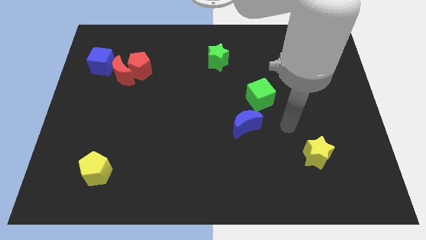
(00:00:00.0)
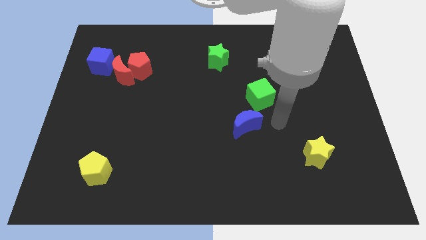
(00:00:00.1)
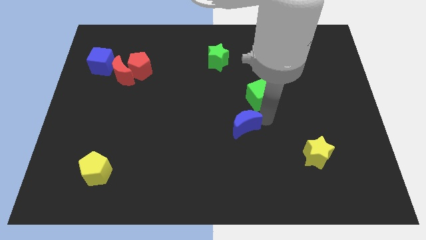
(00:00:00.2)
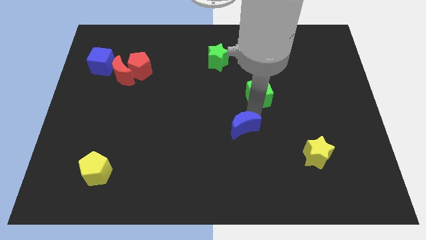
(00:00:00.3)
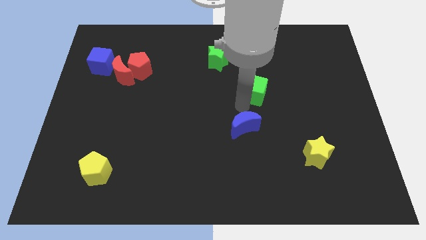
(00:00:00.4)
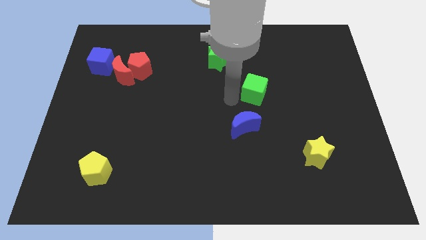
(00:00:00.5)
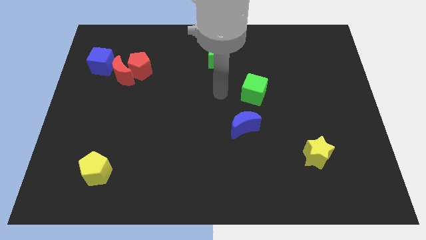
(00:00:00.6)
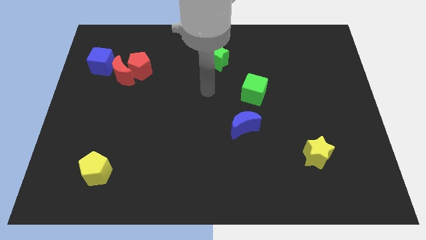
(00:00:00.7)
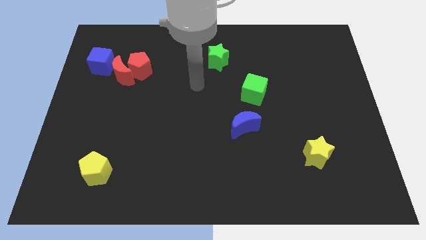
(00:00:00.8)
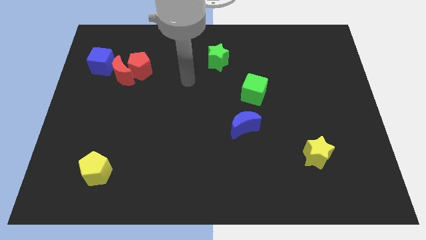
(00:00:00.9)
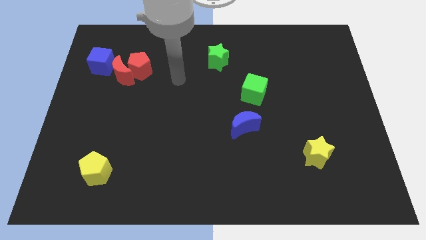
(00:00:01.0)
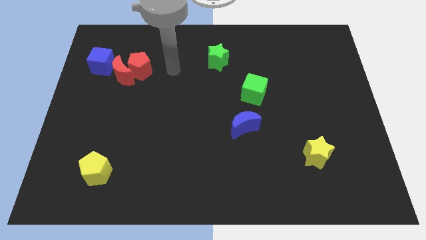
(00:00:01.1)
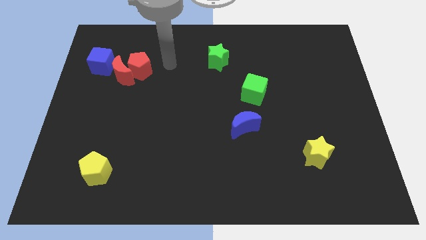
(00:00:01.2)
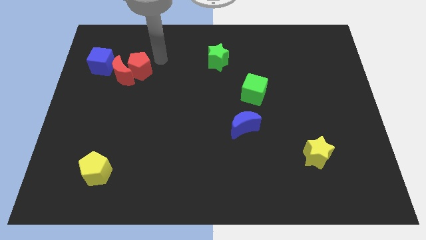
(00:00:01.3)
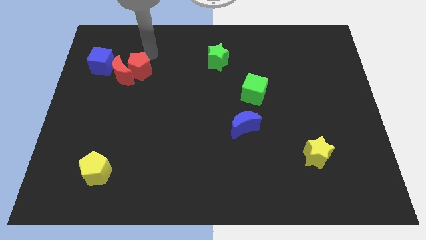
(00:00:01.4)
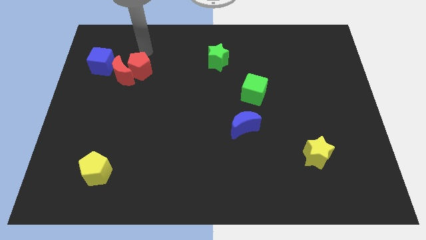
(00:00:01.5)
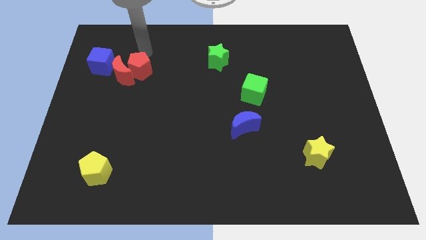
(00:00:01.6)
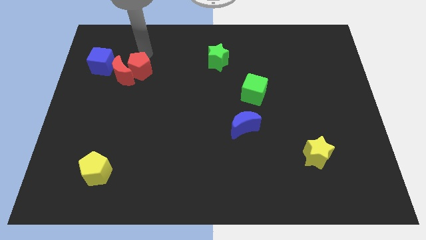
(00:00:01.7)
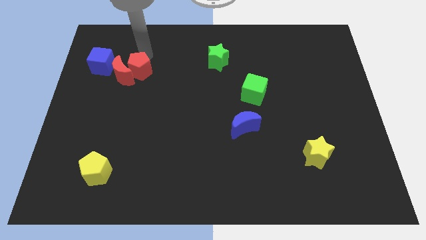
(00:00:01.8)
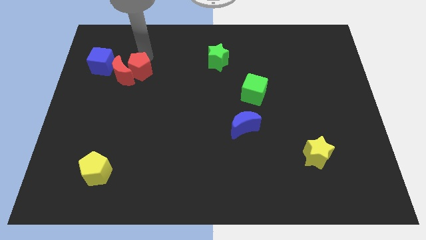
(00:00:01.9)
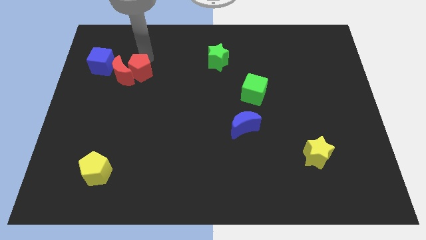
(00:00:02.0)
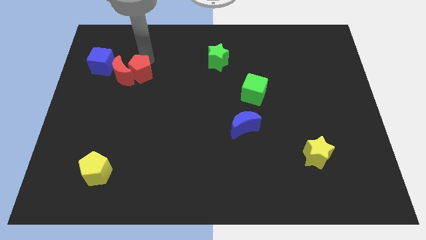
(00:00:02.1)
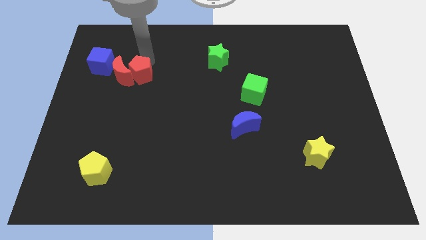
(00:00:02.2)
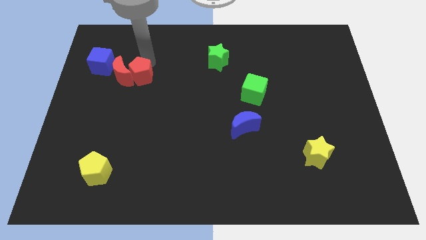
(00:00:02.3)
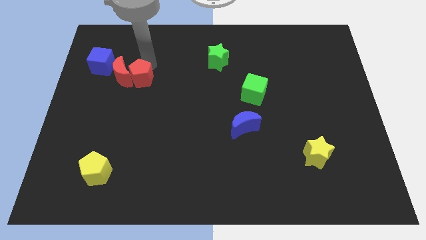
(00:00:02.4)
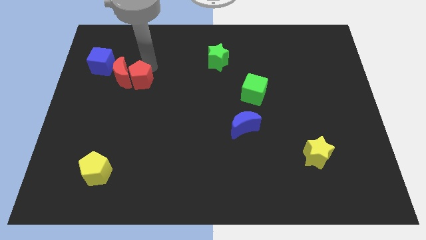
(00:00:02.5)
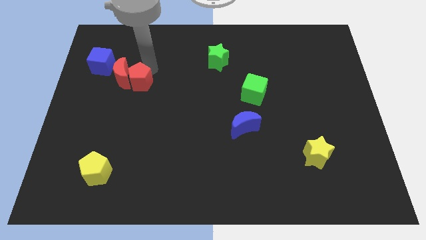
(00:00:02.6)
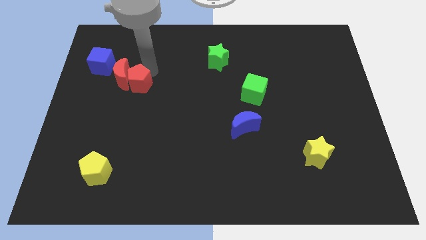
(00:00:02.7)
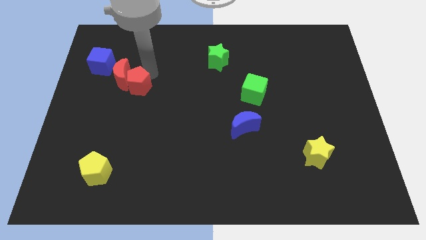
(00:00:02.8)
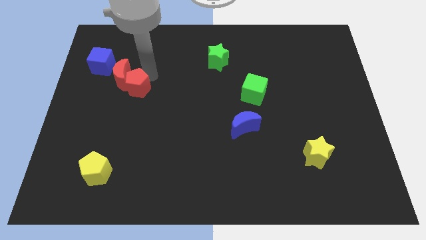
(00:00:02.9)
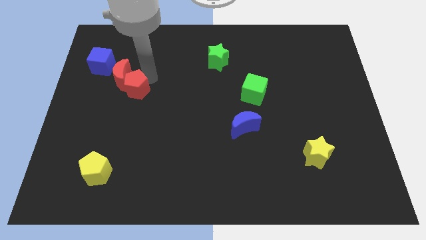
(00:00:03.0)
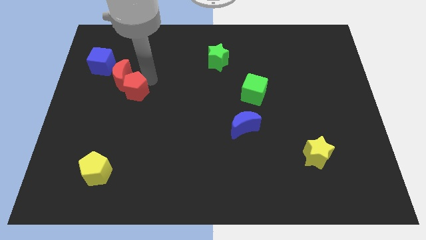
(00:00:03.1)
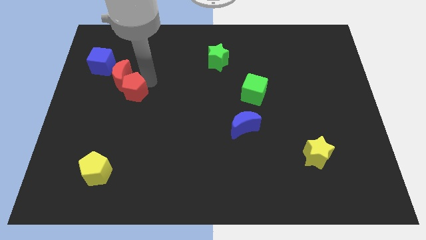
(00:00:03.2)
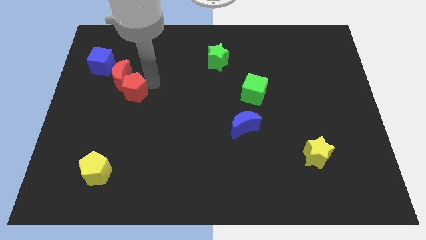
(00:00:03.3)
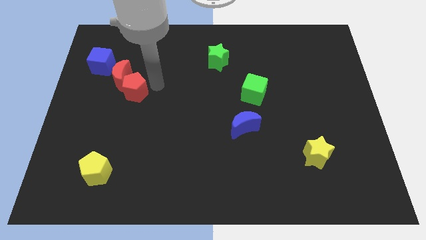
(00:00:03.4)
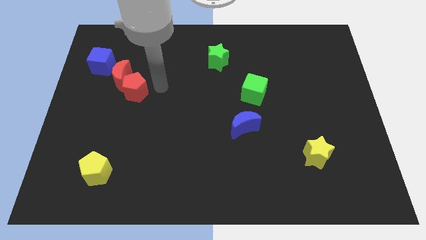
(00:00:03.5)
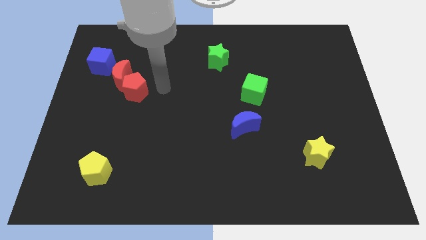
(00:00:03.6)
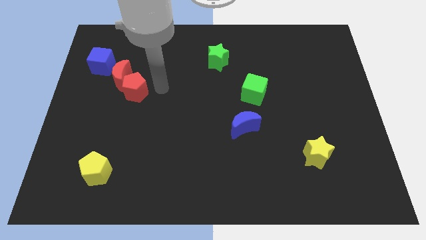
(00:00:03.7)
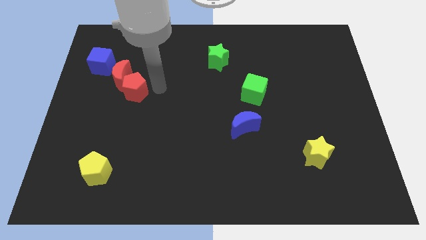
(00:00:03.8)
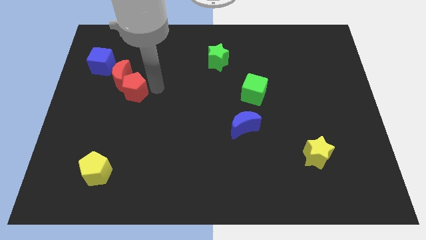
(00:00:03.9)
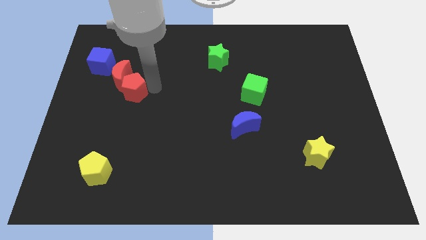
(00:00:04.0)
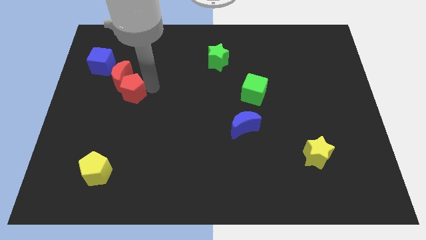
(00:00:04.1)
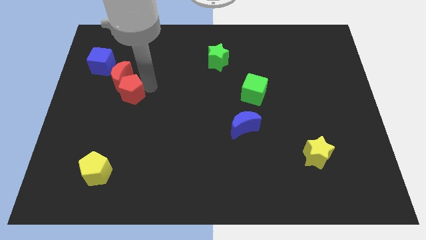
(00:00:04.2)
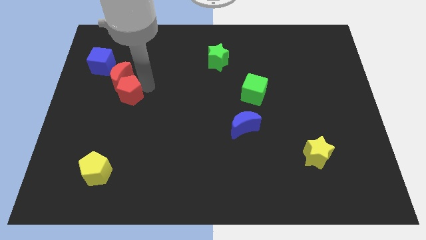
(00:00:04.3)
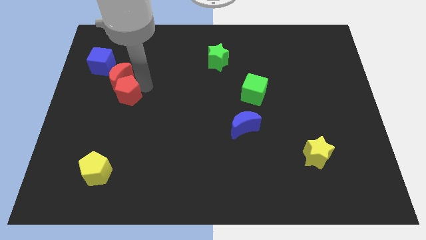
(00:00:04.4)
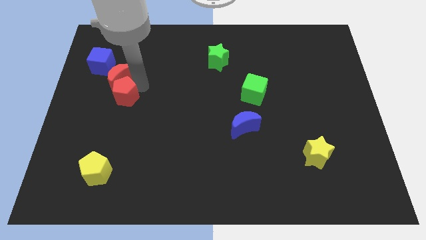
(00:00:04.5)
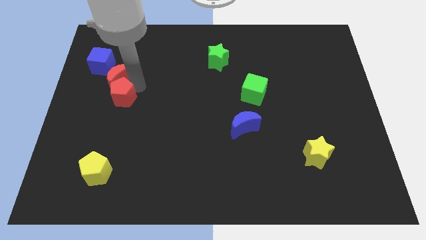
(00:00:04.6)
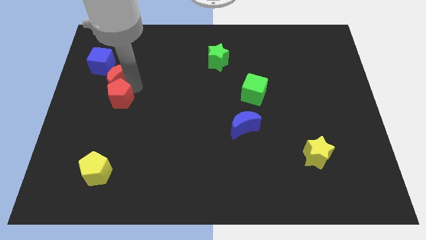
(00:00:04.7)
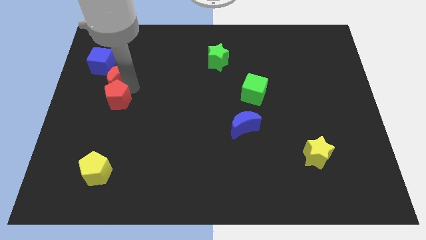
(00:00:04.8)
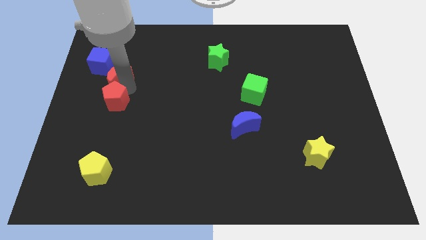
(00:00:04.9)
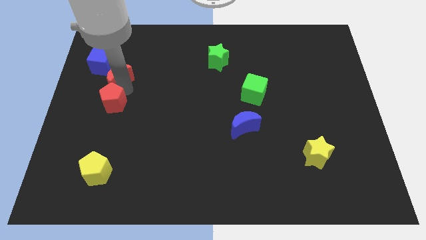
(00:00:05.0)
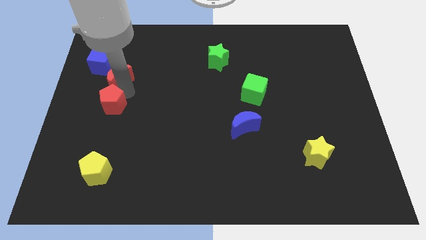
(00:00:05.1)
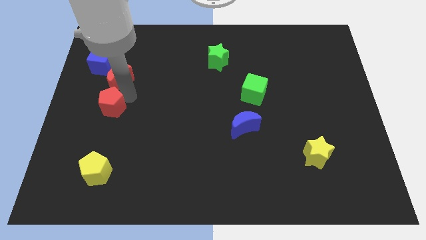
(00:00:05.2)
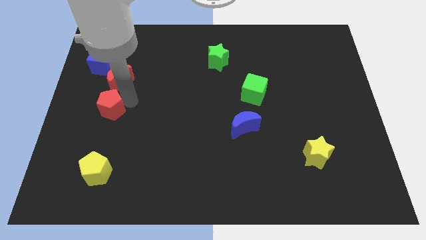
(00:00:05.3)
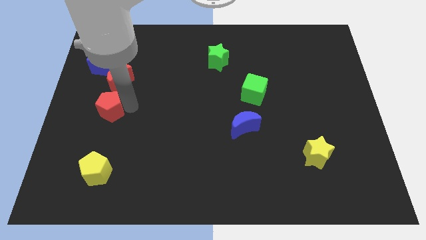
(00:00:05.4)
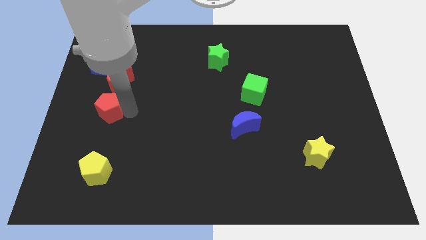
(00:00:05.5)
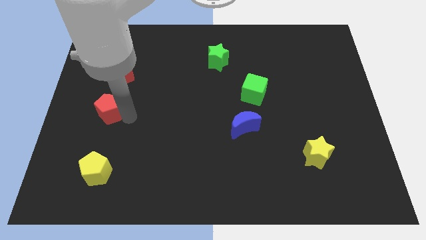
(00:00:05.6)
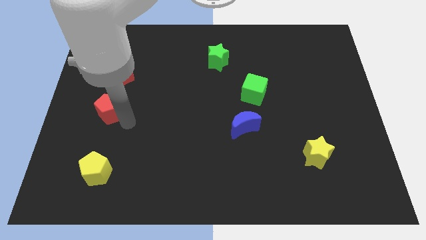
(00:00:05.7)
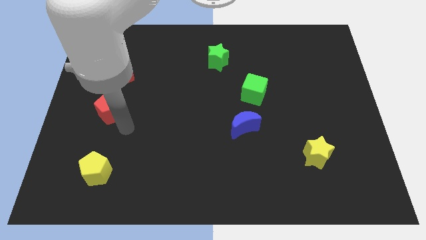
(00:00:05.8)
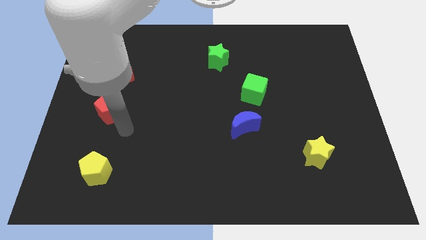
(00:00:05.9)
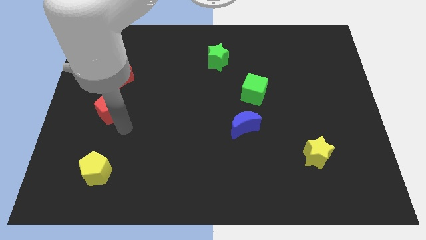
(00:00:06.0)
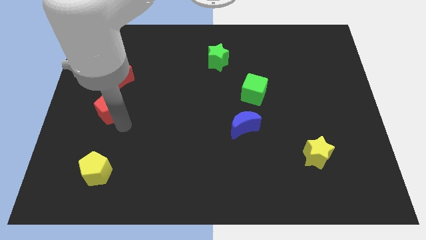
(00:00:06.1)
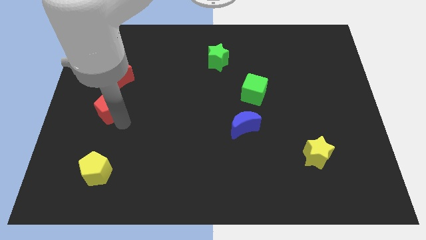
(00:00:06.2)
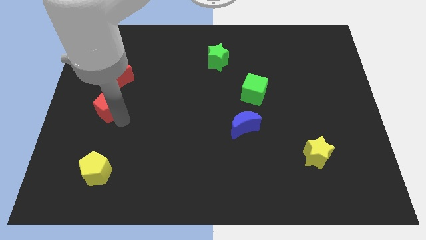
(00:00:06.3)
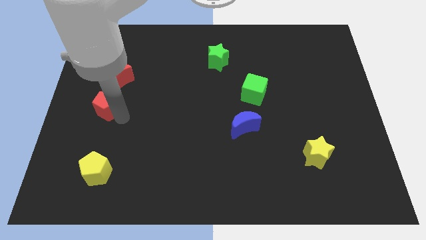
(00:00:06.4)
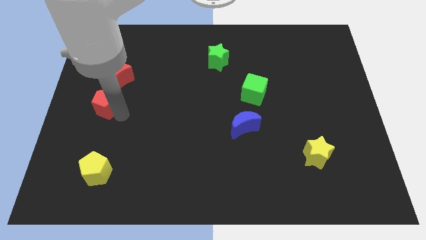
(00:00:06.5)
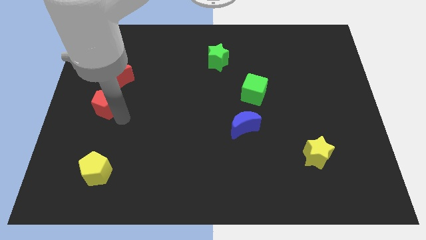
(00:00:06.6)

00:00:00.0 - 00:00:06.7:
put the red pentagon to the center left
